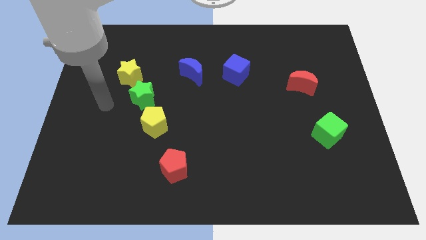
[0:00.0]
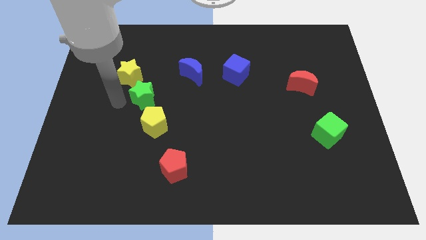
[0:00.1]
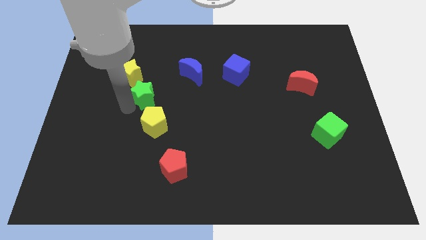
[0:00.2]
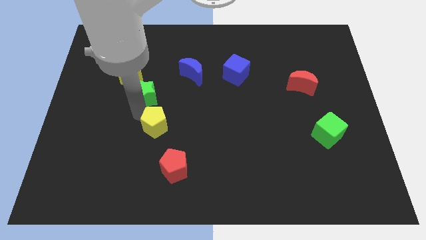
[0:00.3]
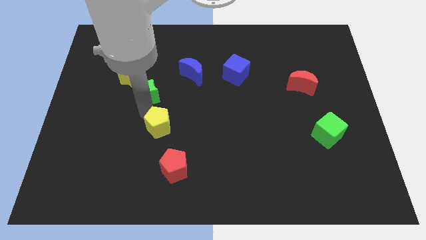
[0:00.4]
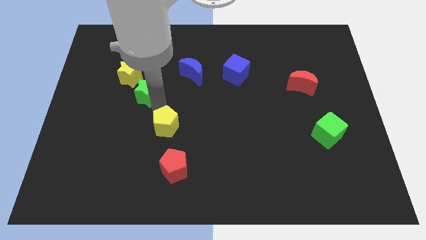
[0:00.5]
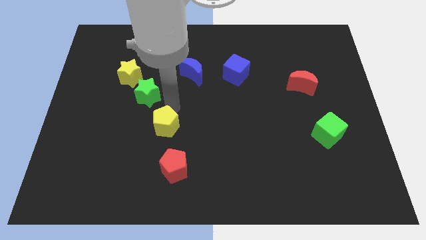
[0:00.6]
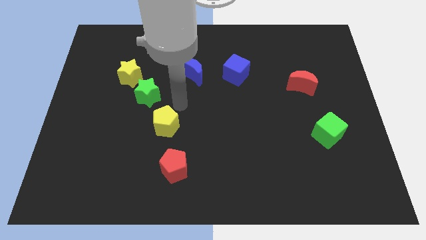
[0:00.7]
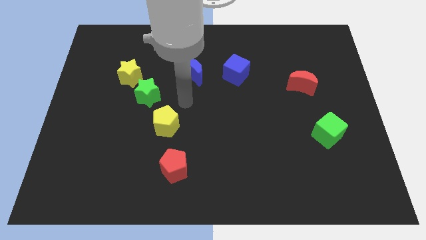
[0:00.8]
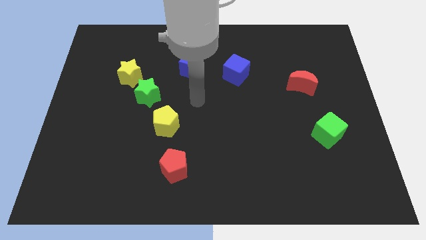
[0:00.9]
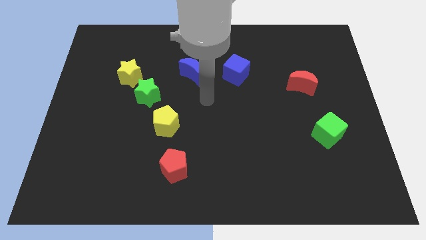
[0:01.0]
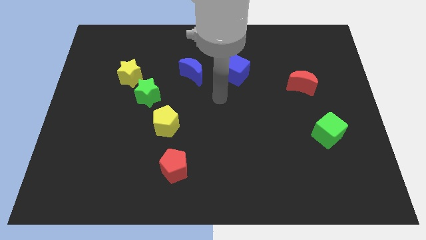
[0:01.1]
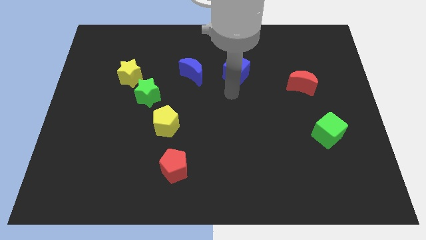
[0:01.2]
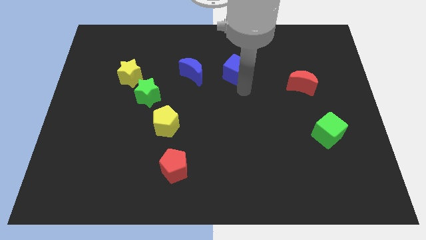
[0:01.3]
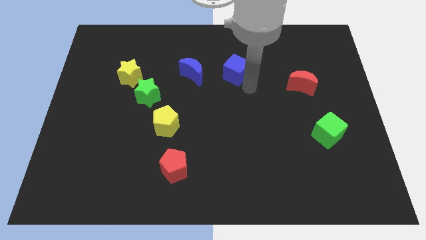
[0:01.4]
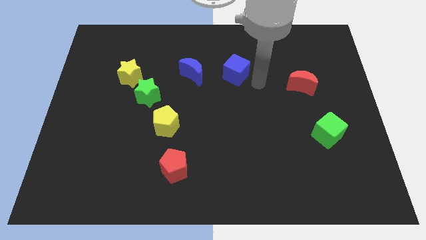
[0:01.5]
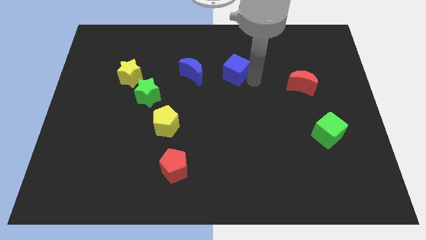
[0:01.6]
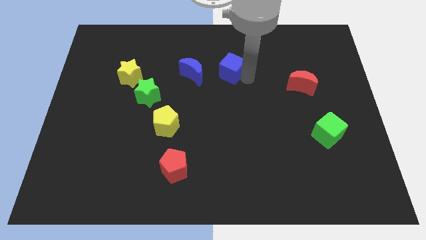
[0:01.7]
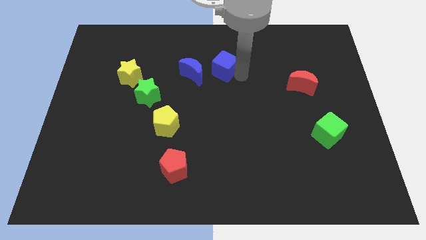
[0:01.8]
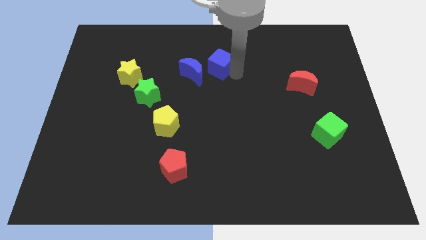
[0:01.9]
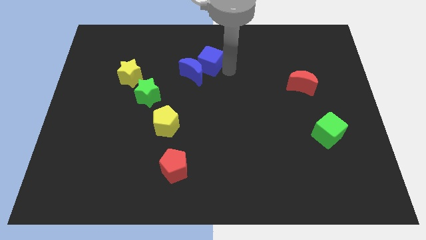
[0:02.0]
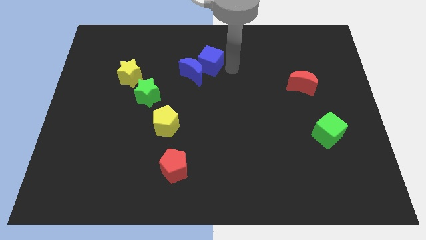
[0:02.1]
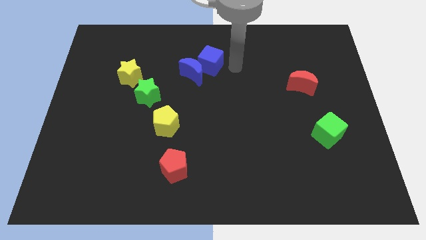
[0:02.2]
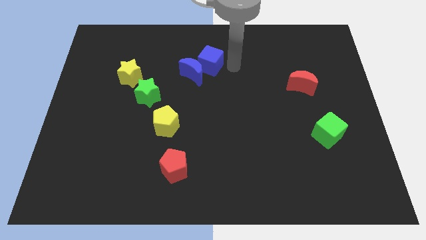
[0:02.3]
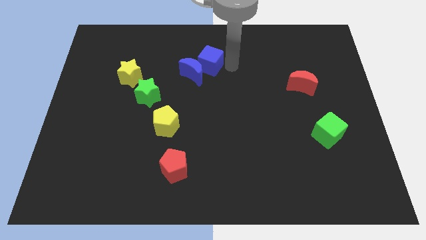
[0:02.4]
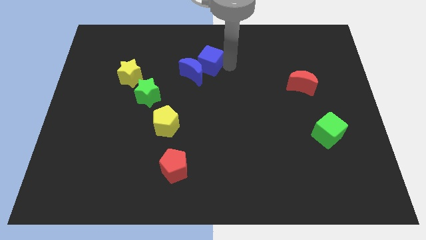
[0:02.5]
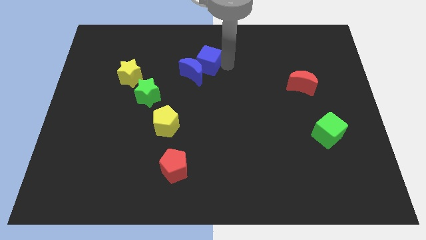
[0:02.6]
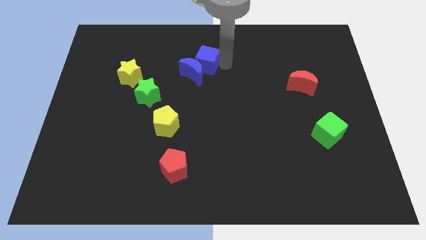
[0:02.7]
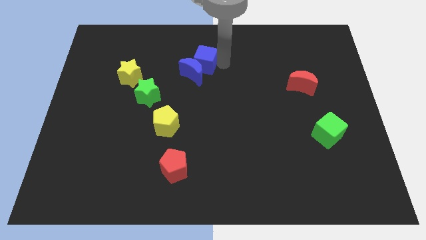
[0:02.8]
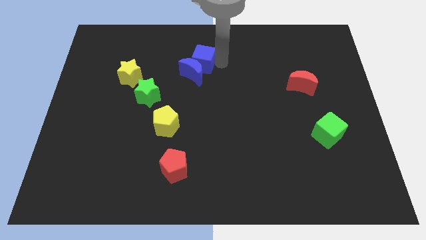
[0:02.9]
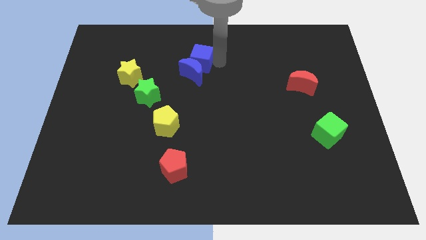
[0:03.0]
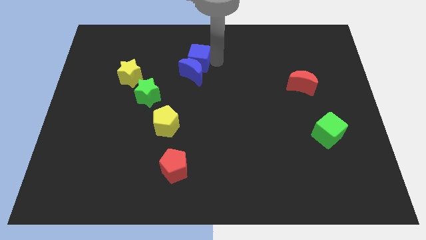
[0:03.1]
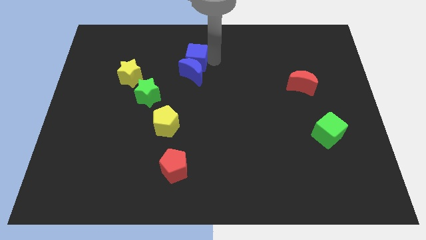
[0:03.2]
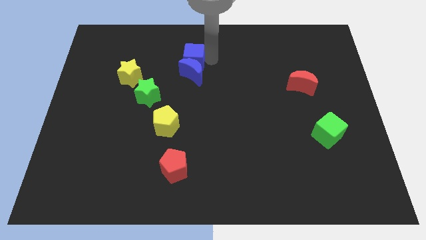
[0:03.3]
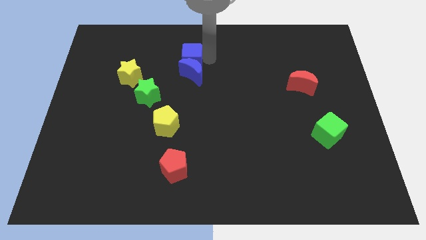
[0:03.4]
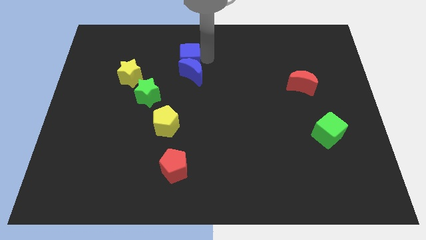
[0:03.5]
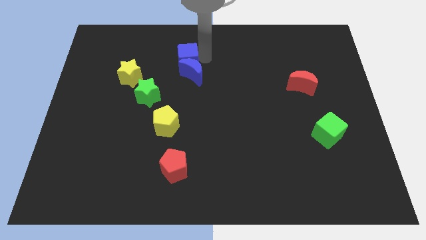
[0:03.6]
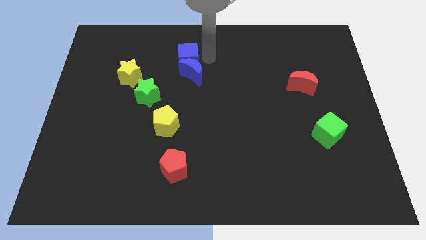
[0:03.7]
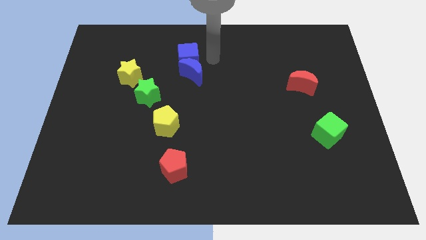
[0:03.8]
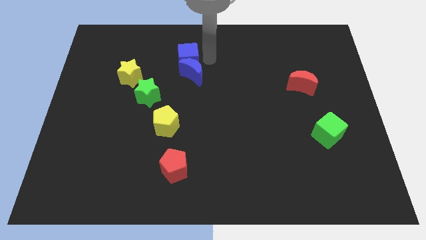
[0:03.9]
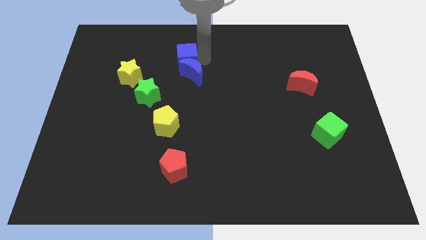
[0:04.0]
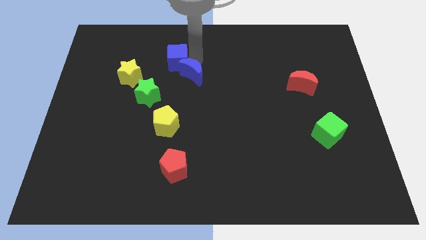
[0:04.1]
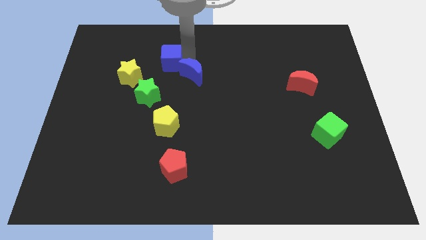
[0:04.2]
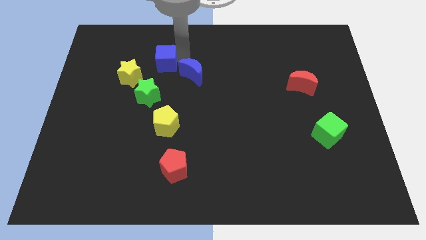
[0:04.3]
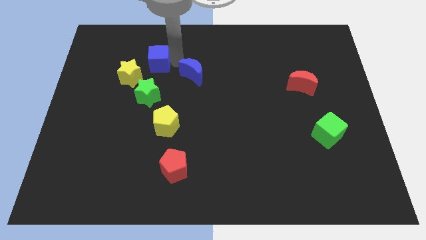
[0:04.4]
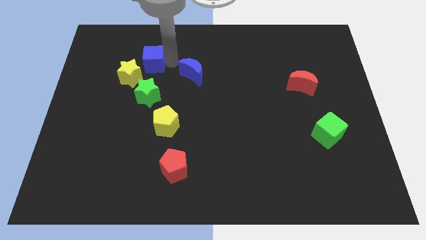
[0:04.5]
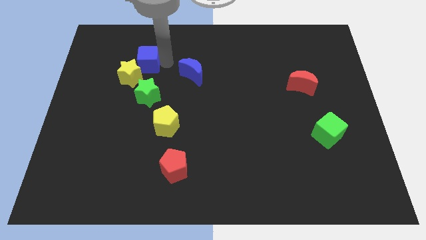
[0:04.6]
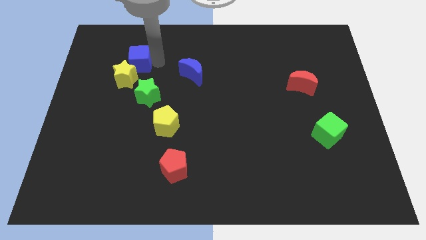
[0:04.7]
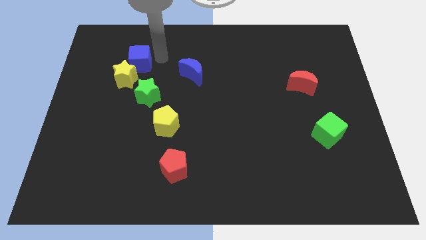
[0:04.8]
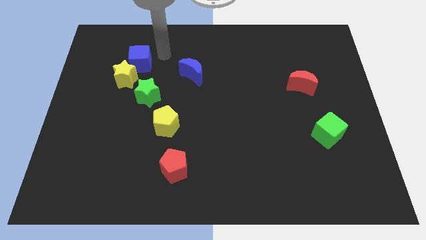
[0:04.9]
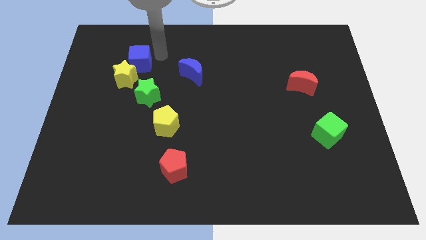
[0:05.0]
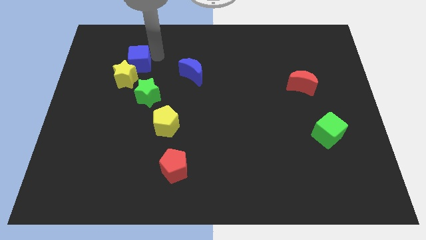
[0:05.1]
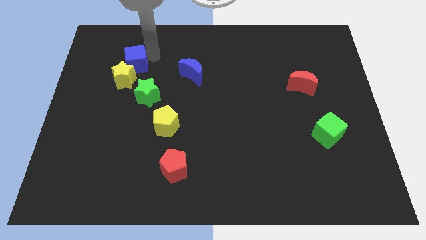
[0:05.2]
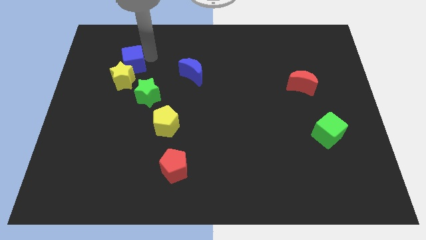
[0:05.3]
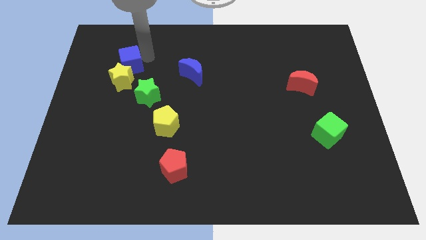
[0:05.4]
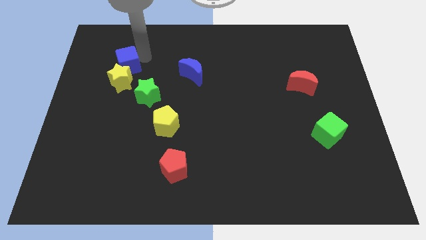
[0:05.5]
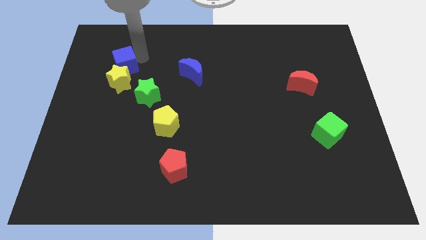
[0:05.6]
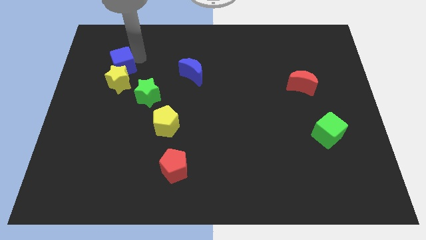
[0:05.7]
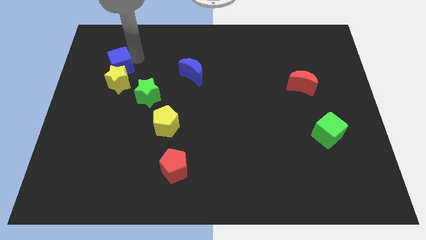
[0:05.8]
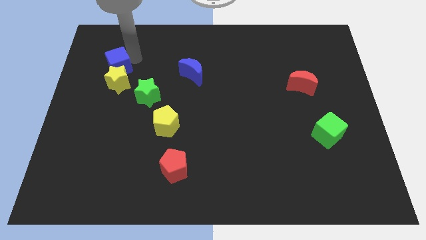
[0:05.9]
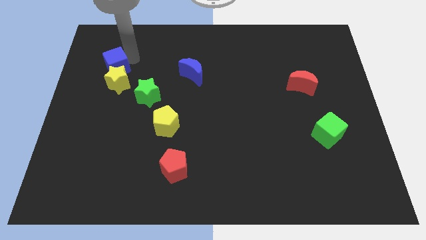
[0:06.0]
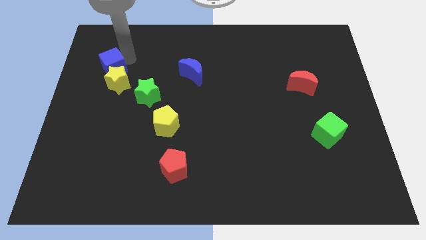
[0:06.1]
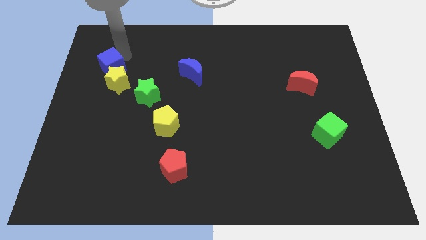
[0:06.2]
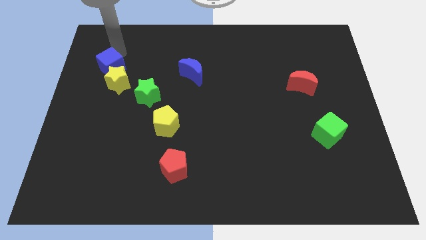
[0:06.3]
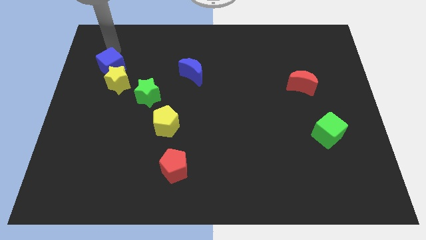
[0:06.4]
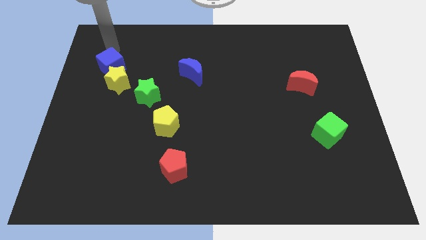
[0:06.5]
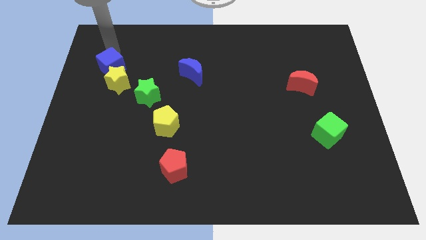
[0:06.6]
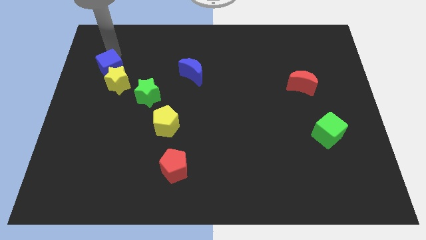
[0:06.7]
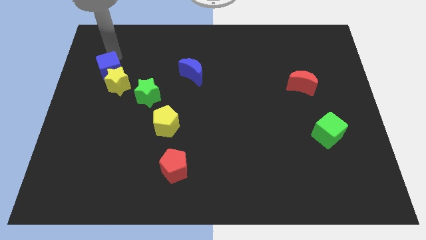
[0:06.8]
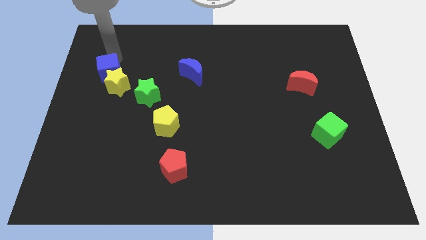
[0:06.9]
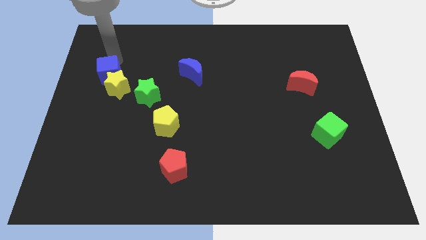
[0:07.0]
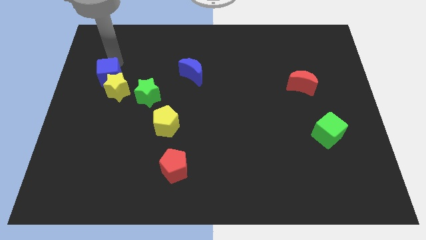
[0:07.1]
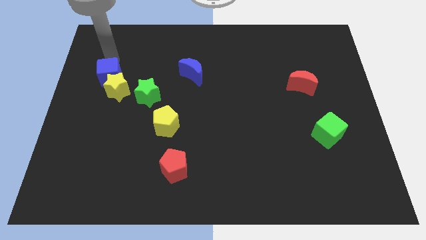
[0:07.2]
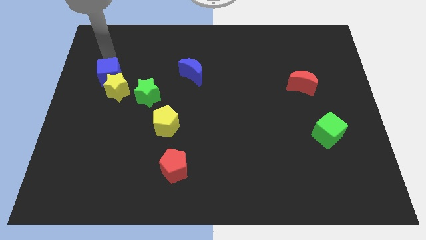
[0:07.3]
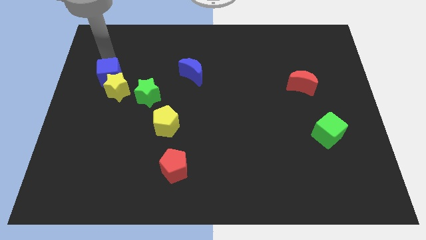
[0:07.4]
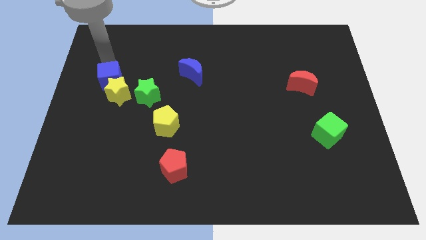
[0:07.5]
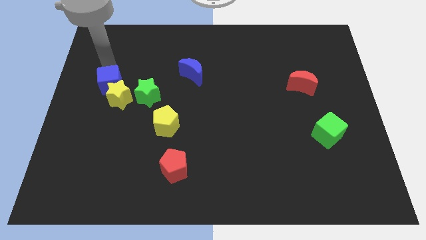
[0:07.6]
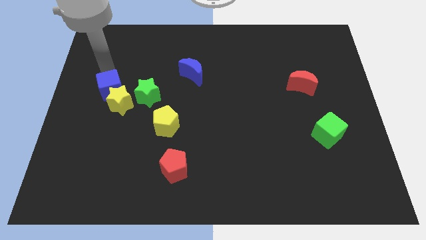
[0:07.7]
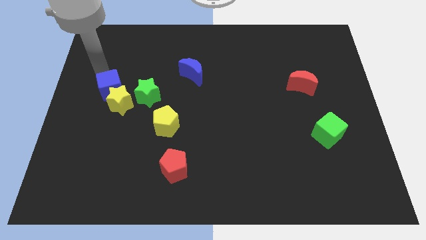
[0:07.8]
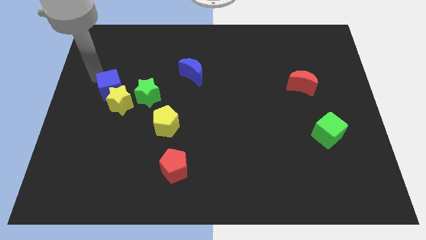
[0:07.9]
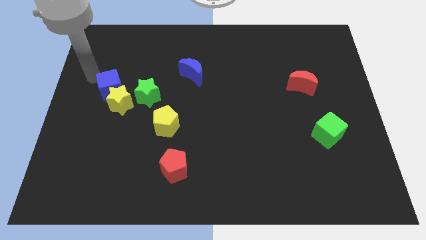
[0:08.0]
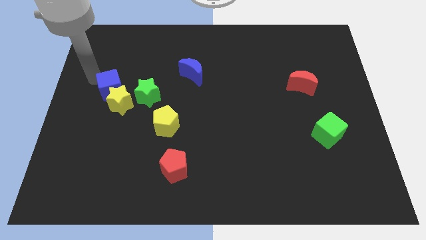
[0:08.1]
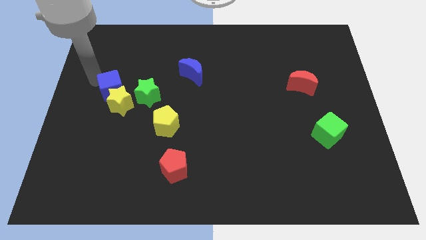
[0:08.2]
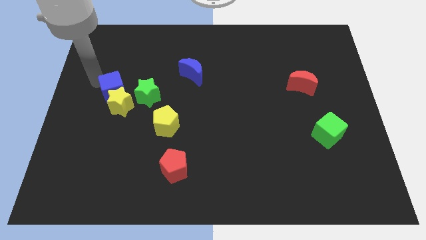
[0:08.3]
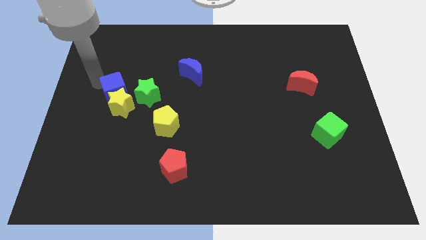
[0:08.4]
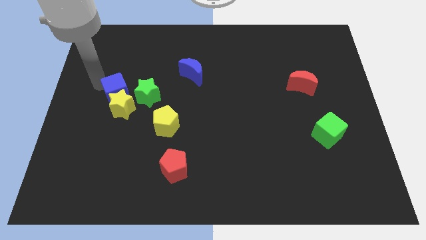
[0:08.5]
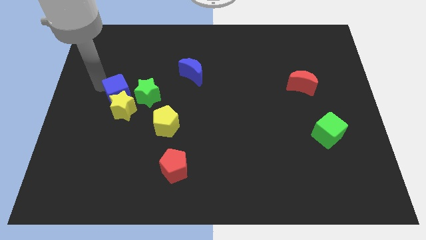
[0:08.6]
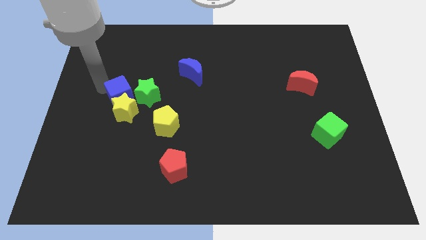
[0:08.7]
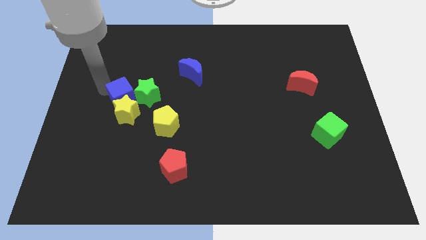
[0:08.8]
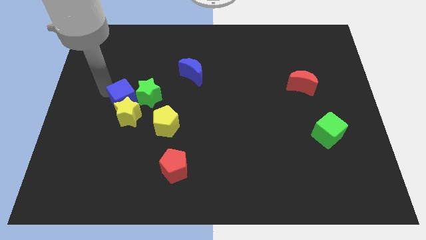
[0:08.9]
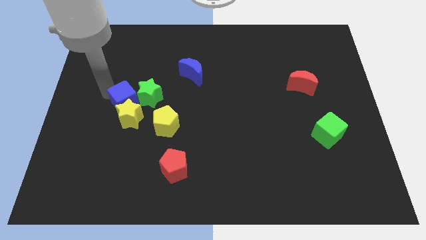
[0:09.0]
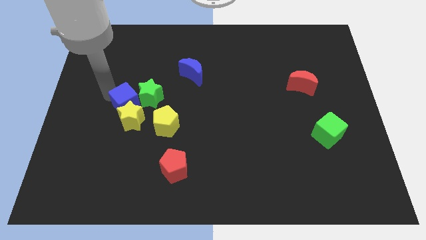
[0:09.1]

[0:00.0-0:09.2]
slide the blue cube to the top left side of the yellow pentagon
